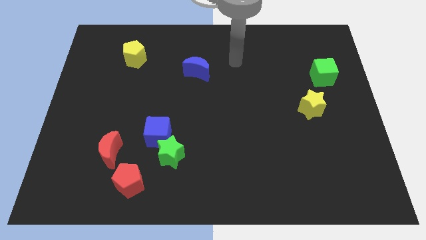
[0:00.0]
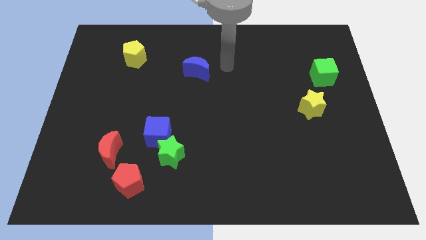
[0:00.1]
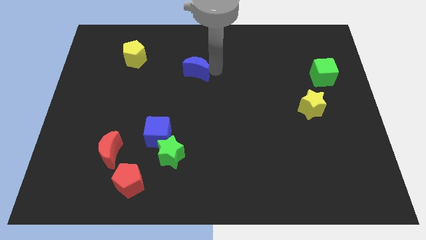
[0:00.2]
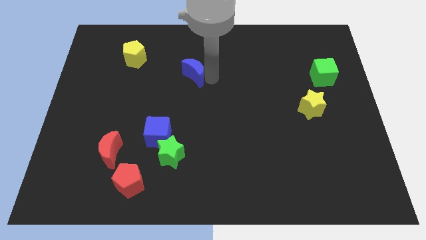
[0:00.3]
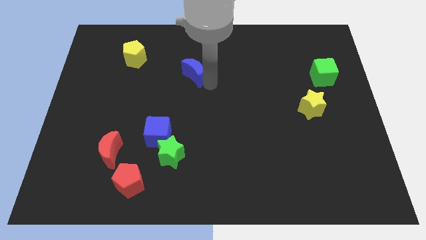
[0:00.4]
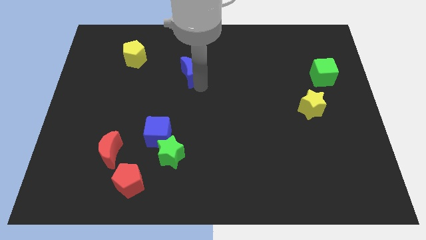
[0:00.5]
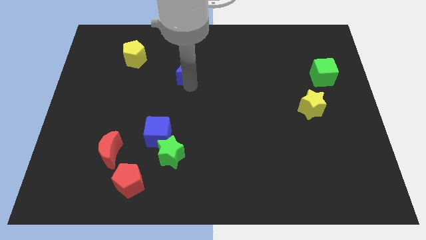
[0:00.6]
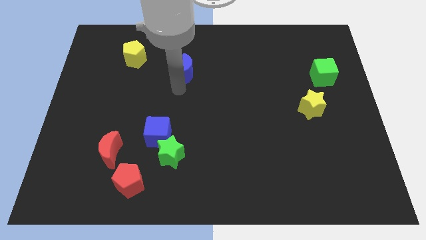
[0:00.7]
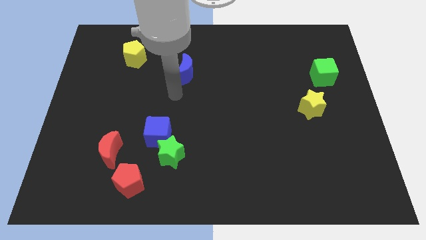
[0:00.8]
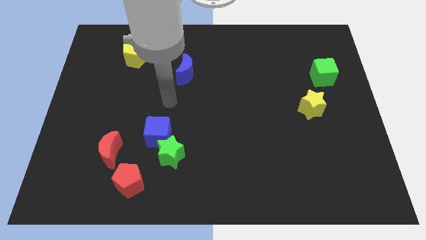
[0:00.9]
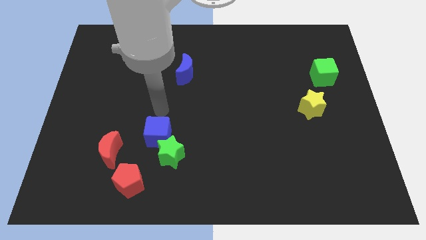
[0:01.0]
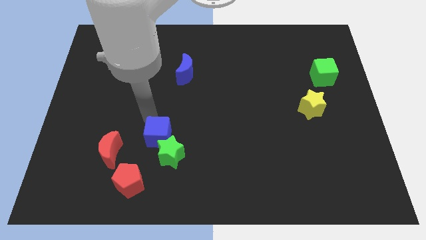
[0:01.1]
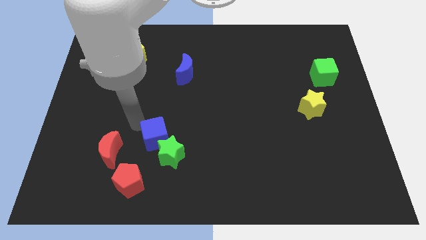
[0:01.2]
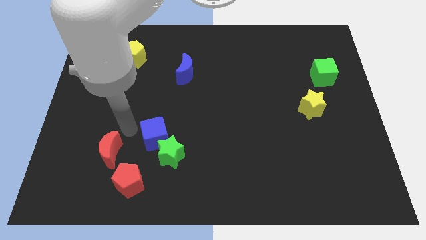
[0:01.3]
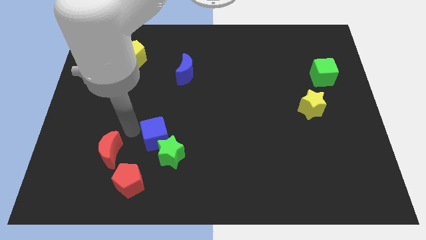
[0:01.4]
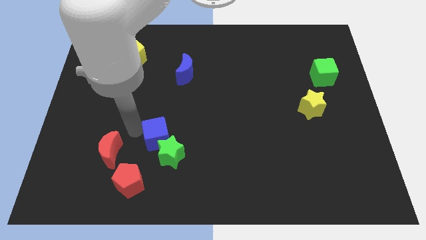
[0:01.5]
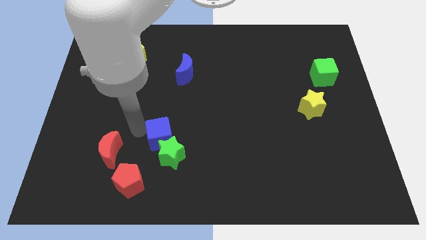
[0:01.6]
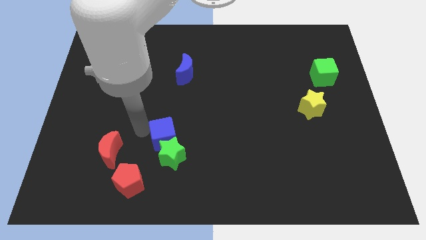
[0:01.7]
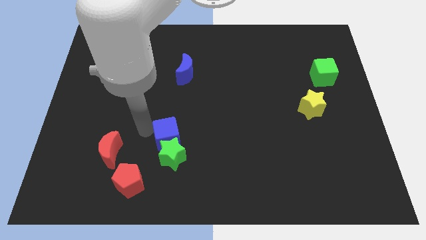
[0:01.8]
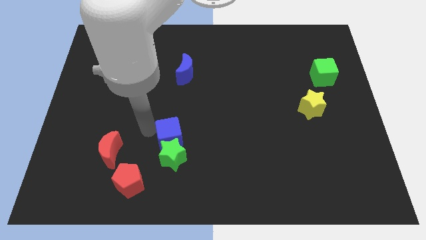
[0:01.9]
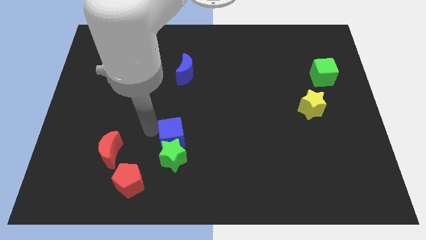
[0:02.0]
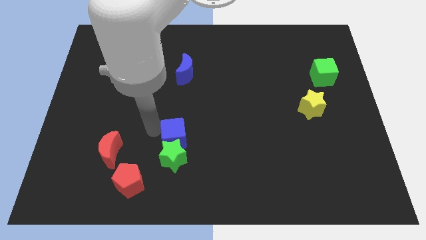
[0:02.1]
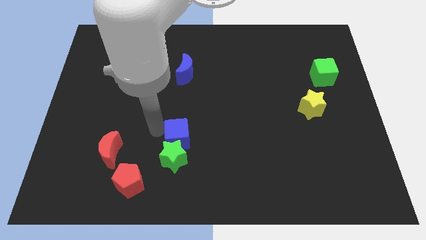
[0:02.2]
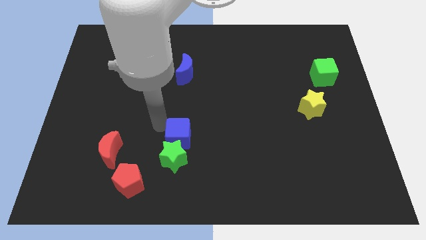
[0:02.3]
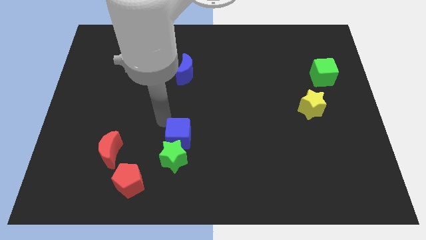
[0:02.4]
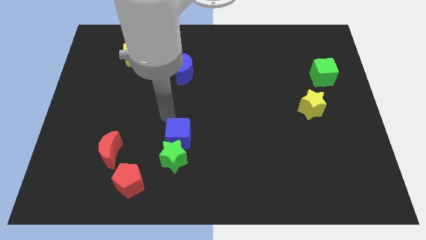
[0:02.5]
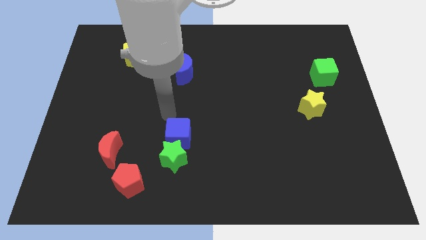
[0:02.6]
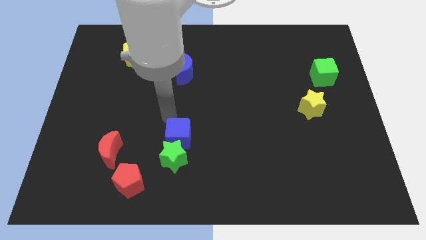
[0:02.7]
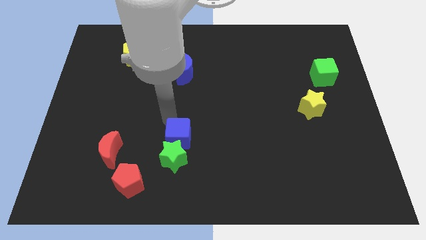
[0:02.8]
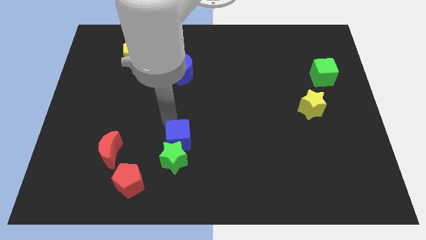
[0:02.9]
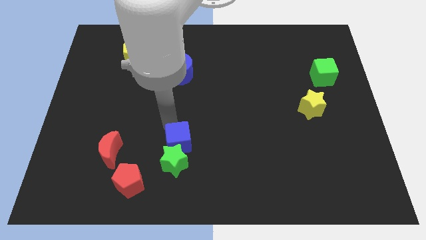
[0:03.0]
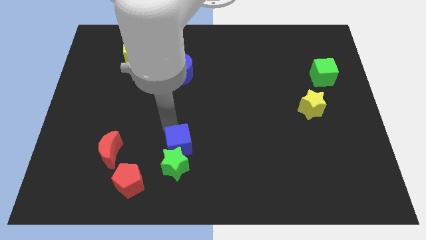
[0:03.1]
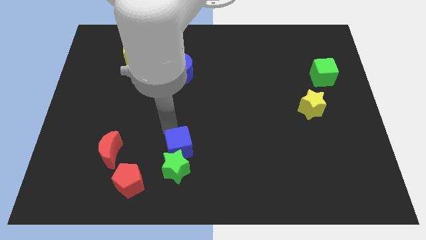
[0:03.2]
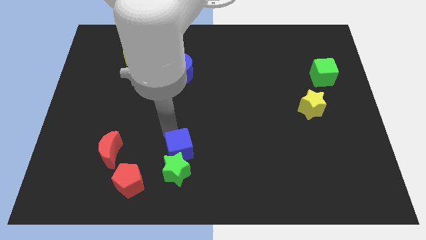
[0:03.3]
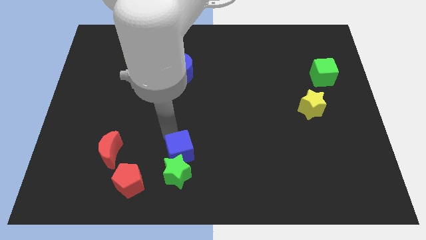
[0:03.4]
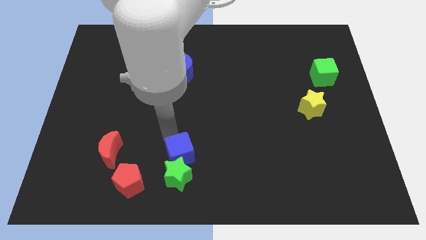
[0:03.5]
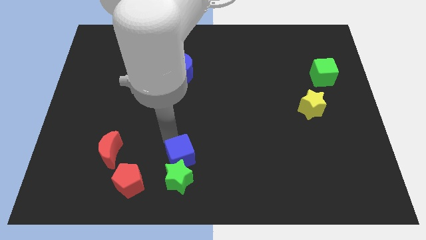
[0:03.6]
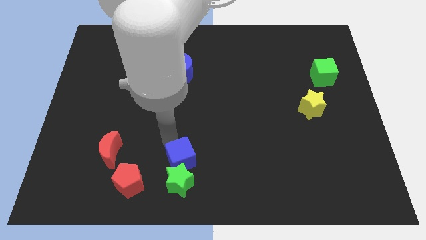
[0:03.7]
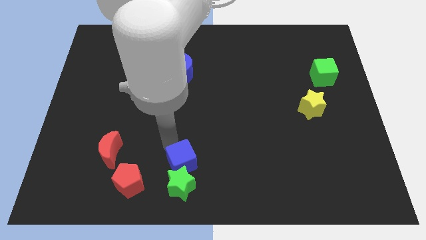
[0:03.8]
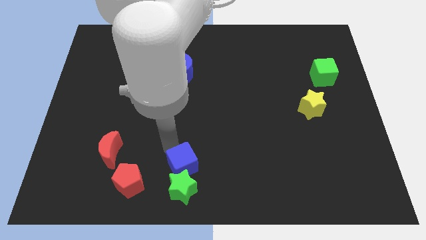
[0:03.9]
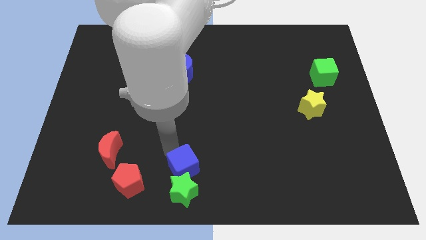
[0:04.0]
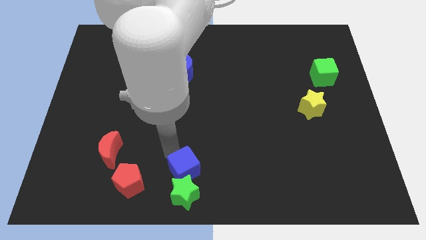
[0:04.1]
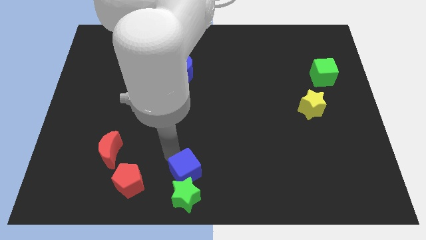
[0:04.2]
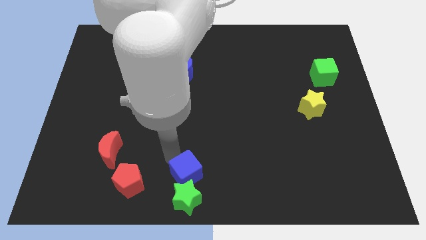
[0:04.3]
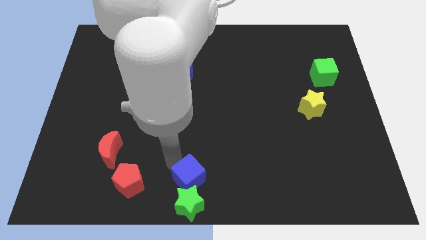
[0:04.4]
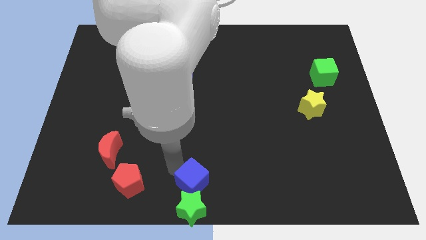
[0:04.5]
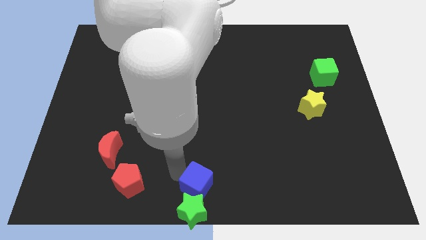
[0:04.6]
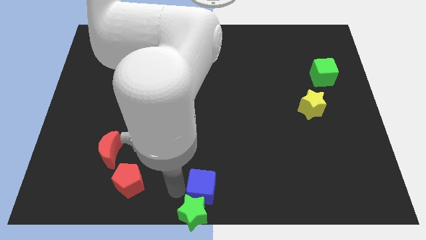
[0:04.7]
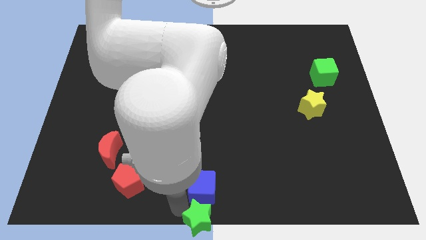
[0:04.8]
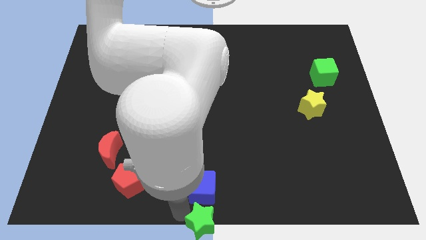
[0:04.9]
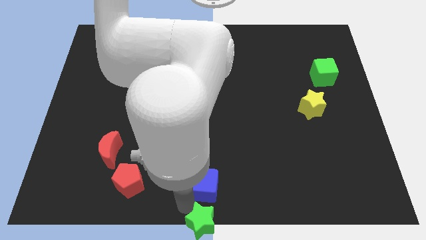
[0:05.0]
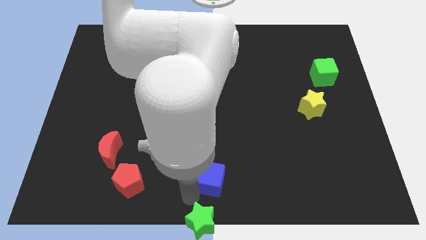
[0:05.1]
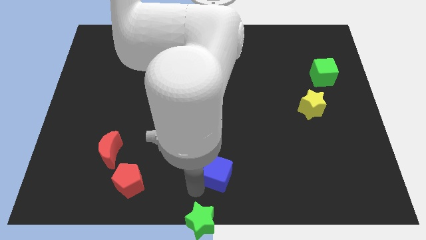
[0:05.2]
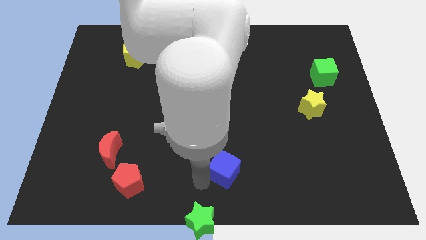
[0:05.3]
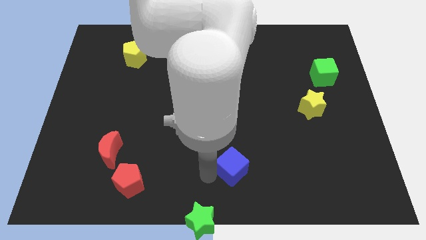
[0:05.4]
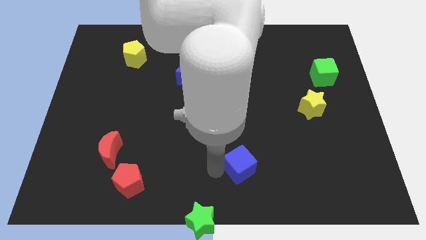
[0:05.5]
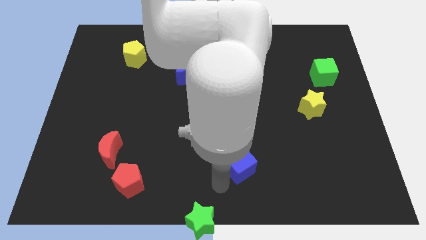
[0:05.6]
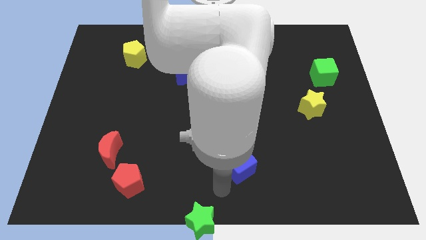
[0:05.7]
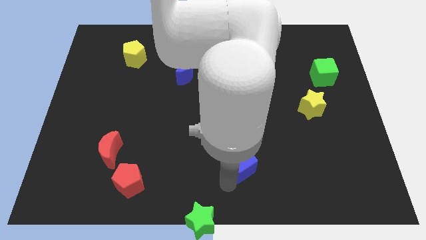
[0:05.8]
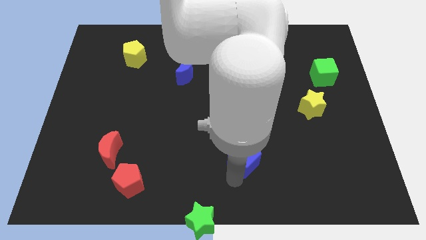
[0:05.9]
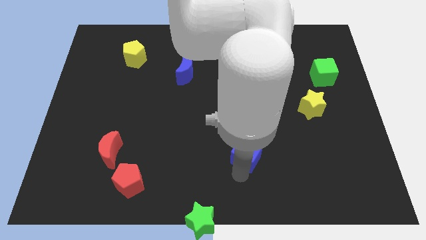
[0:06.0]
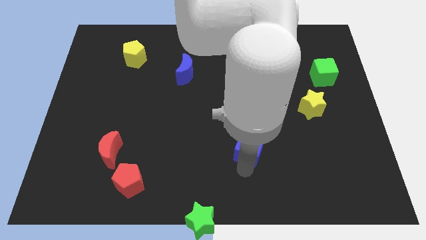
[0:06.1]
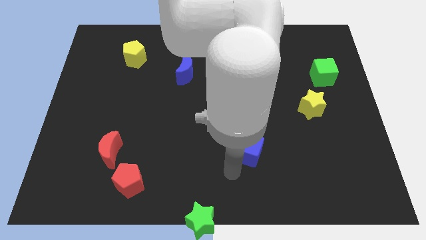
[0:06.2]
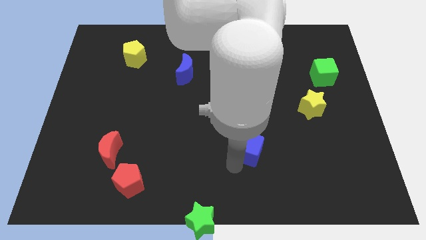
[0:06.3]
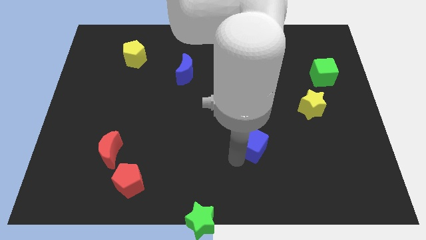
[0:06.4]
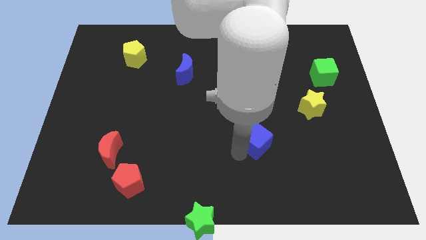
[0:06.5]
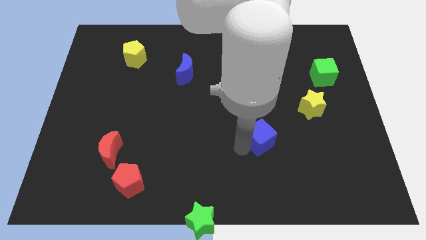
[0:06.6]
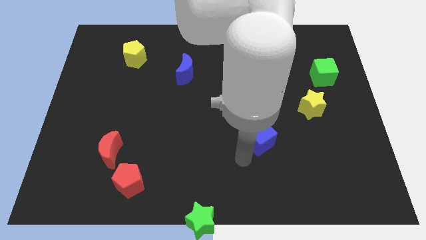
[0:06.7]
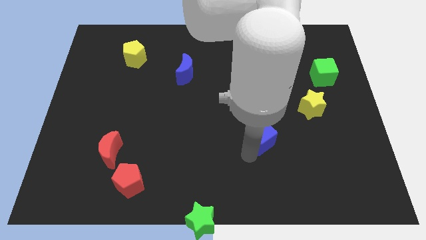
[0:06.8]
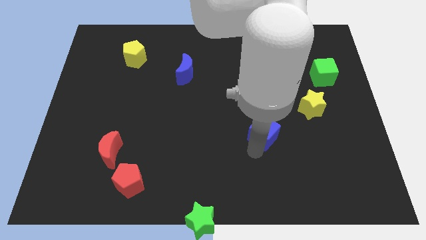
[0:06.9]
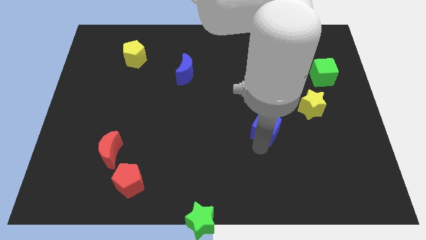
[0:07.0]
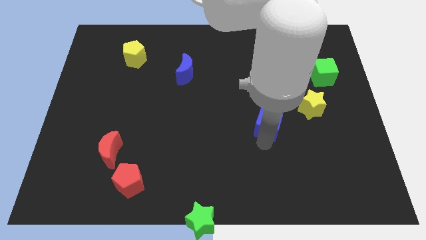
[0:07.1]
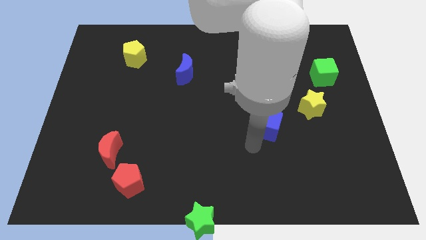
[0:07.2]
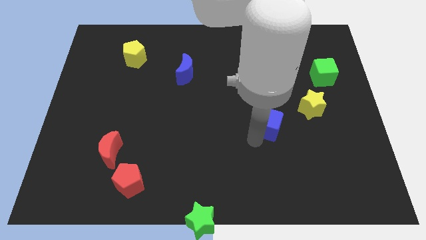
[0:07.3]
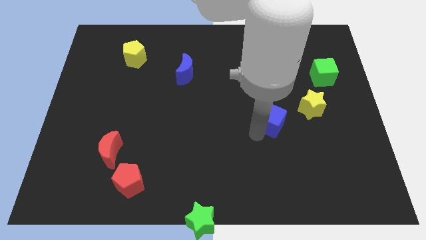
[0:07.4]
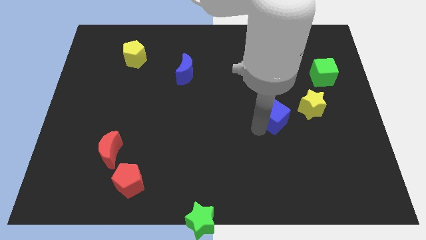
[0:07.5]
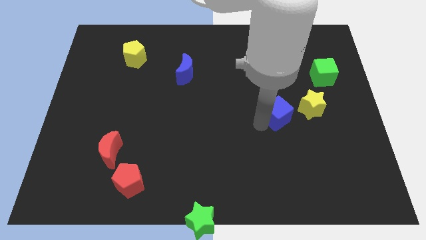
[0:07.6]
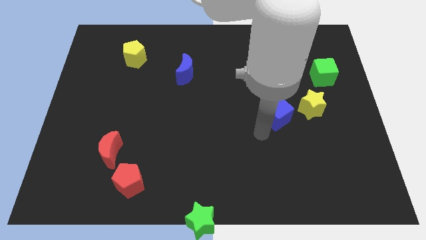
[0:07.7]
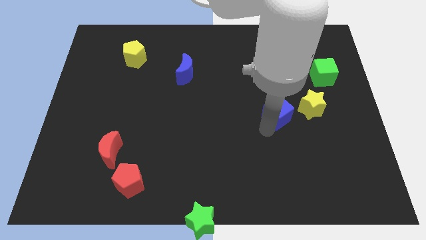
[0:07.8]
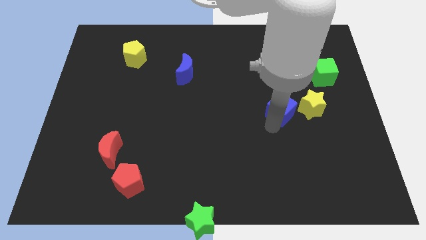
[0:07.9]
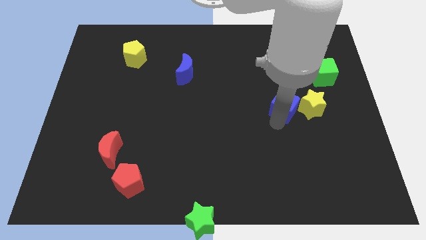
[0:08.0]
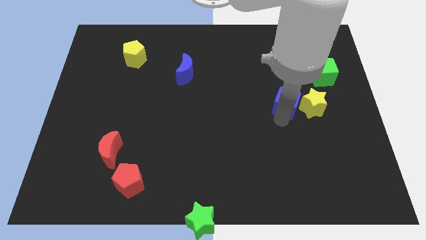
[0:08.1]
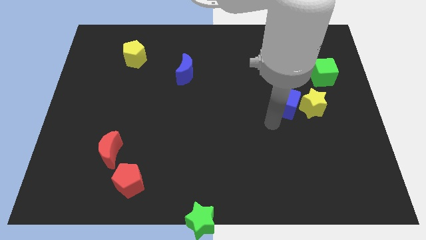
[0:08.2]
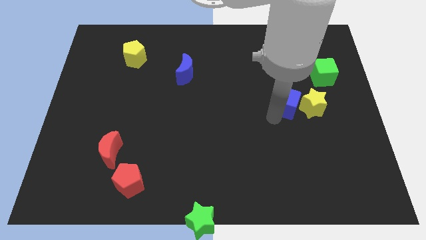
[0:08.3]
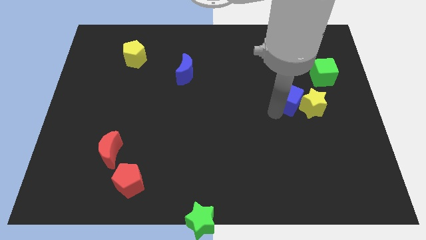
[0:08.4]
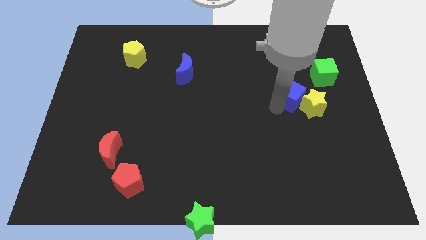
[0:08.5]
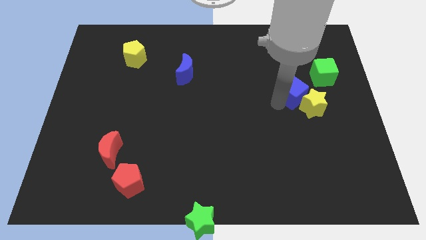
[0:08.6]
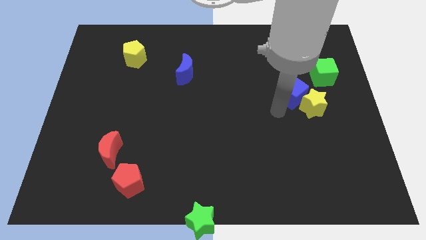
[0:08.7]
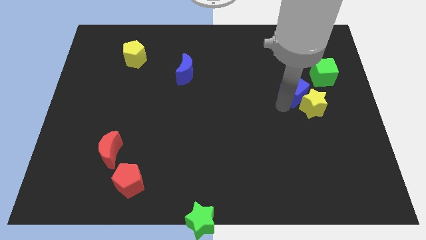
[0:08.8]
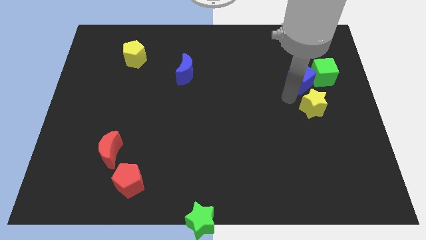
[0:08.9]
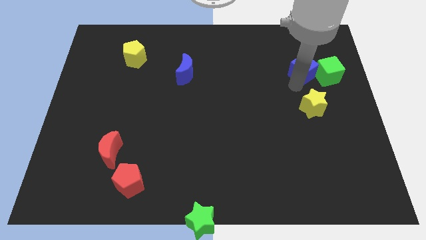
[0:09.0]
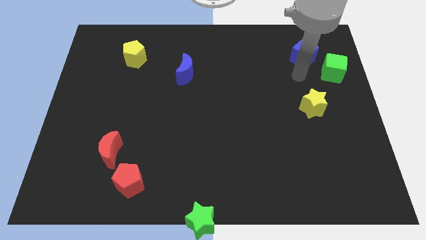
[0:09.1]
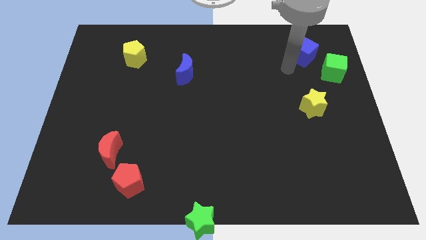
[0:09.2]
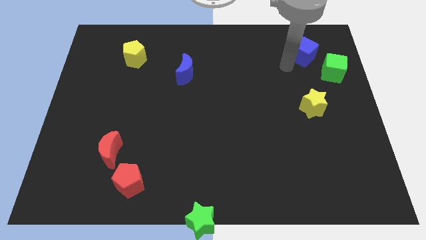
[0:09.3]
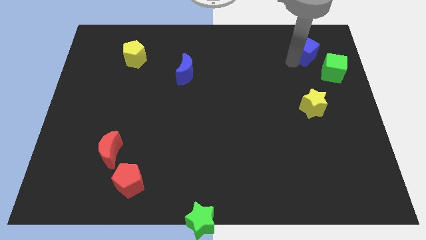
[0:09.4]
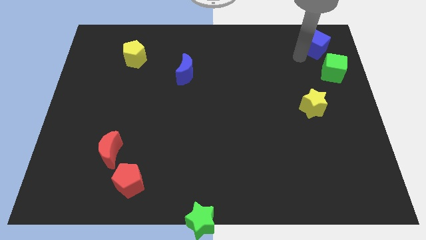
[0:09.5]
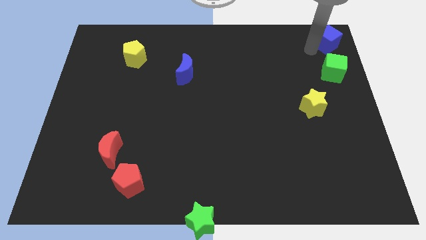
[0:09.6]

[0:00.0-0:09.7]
push the blue cube to the top right corner
